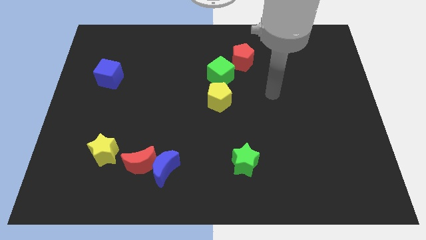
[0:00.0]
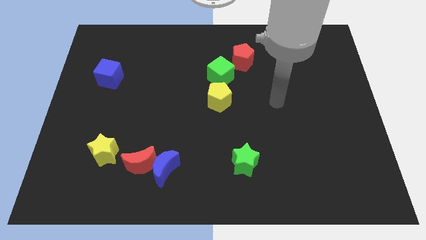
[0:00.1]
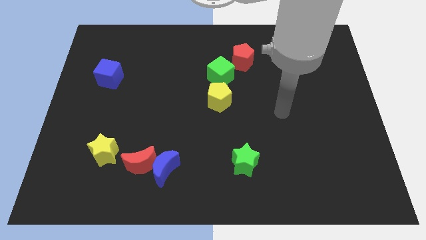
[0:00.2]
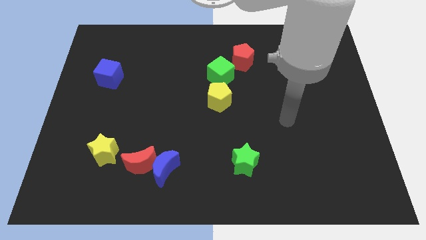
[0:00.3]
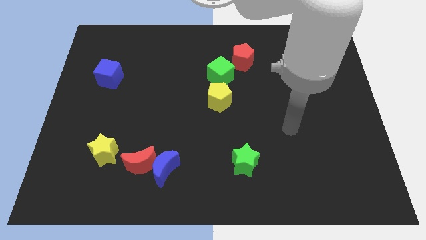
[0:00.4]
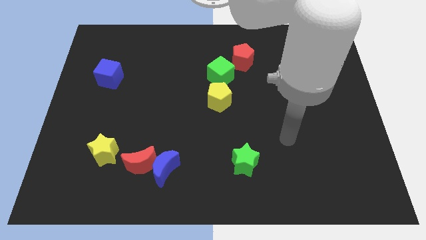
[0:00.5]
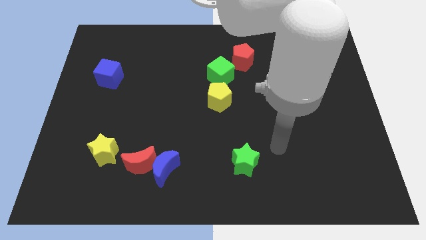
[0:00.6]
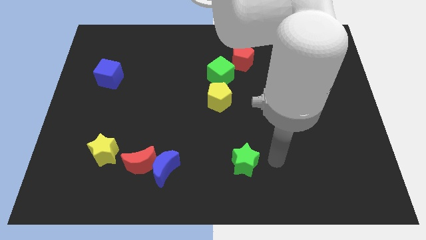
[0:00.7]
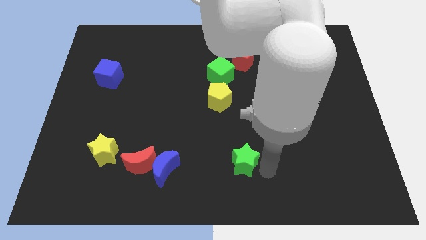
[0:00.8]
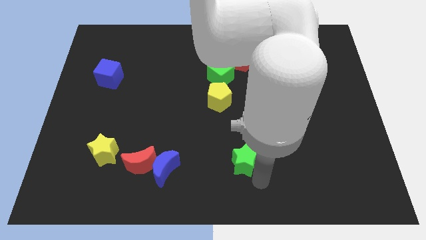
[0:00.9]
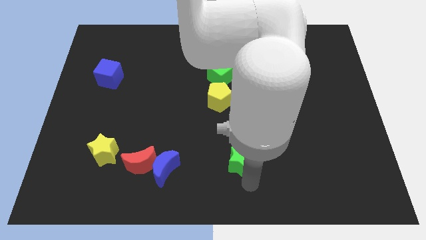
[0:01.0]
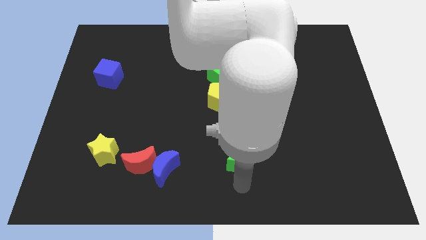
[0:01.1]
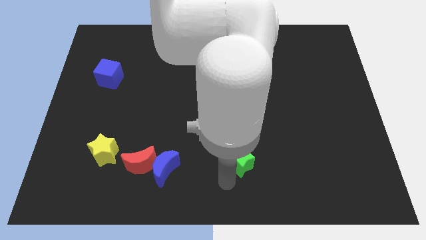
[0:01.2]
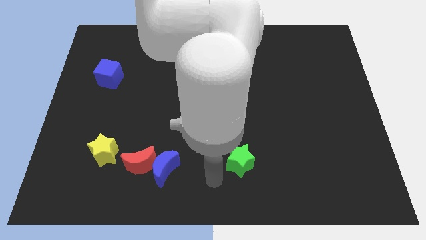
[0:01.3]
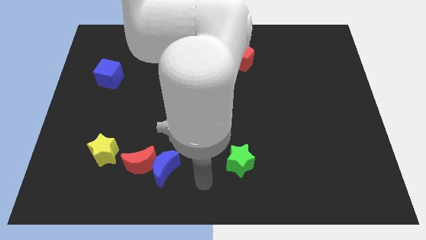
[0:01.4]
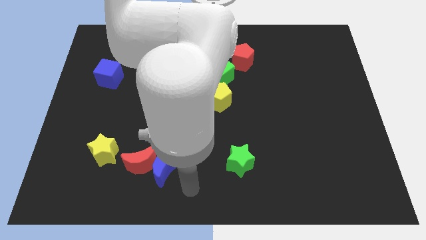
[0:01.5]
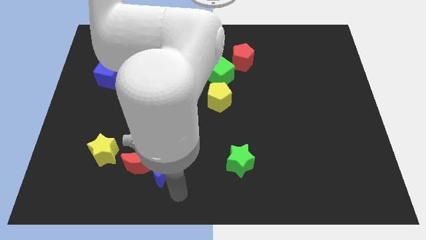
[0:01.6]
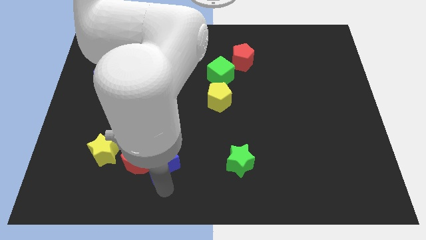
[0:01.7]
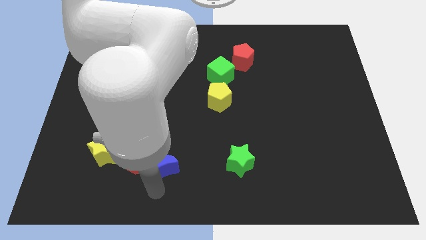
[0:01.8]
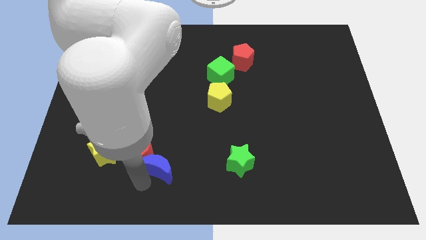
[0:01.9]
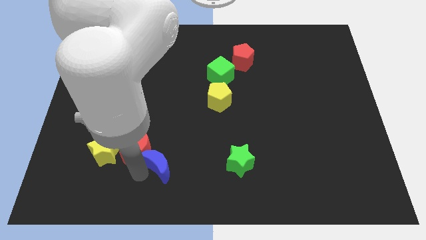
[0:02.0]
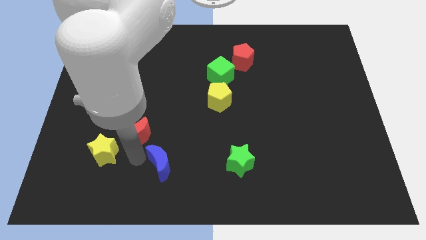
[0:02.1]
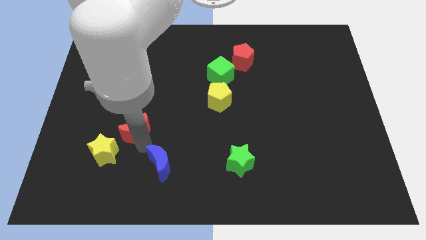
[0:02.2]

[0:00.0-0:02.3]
pull the blue moon apart from the red moon

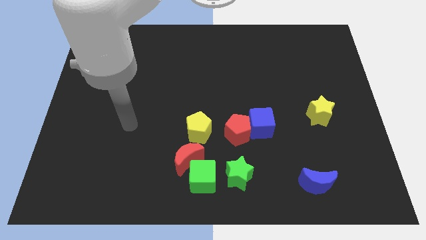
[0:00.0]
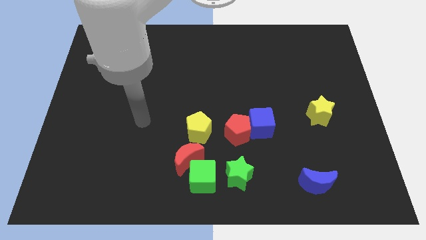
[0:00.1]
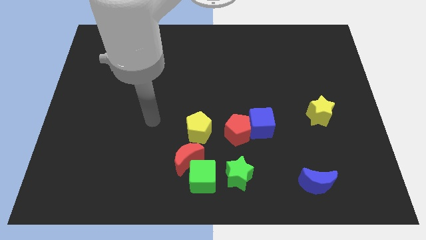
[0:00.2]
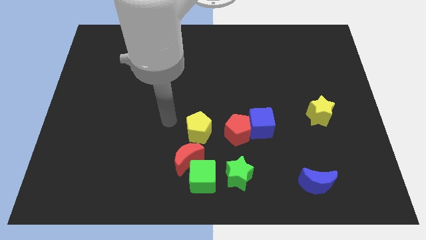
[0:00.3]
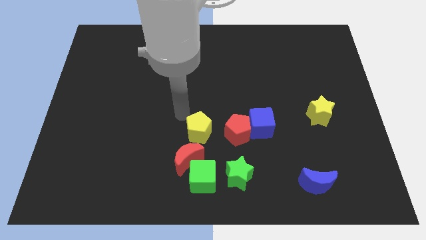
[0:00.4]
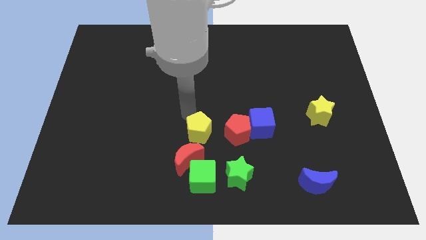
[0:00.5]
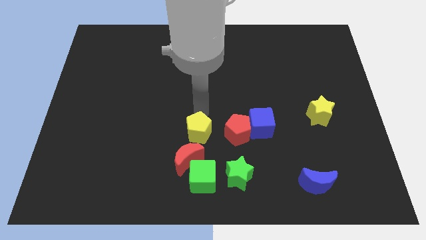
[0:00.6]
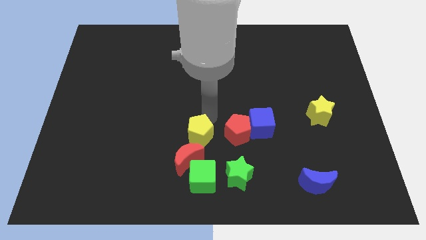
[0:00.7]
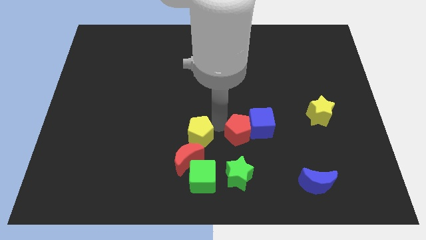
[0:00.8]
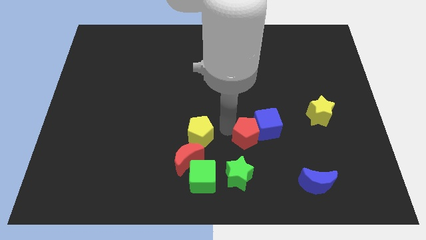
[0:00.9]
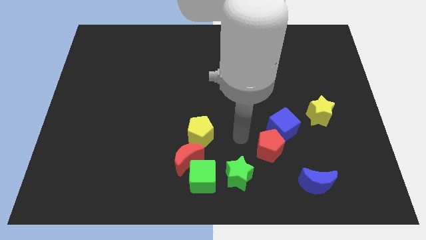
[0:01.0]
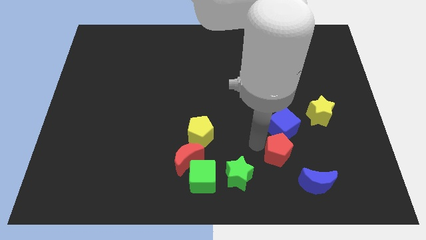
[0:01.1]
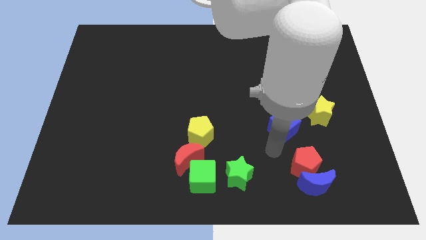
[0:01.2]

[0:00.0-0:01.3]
move the blue cube away from the red pentagon

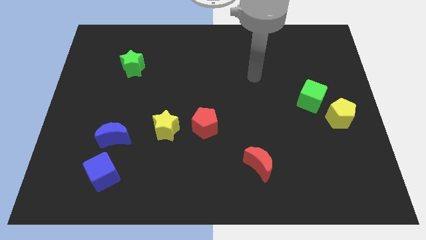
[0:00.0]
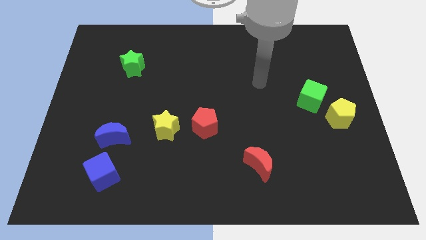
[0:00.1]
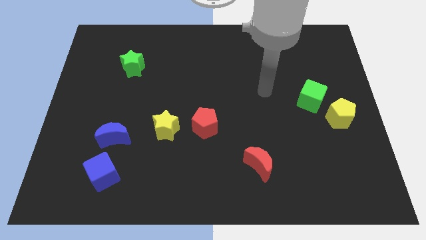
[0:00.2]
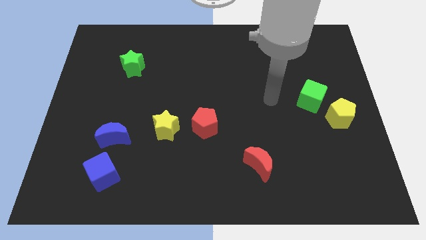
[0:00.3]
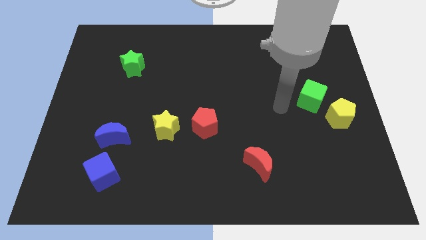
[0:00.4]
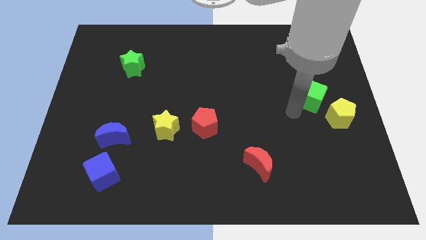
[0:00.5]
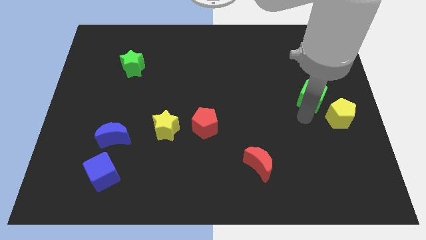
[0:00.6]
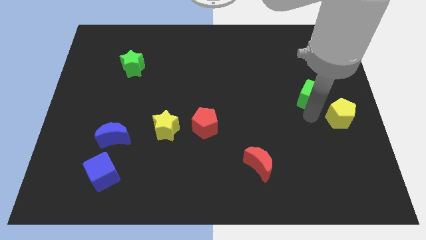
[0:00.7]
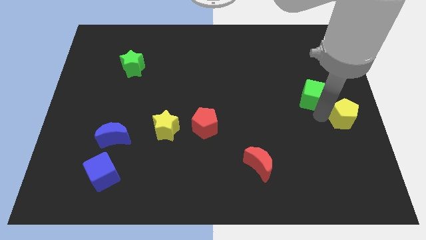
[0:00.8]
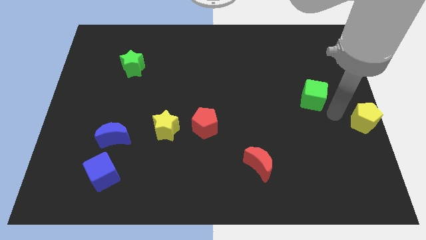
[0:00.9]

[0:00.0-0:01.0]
separate the green cube from the yellow pentagon

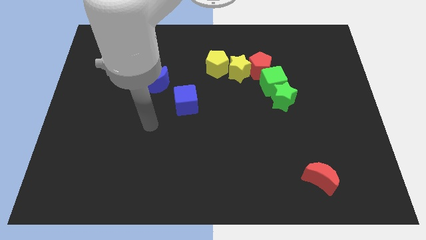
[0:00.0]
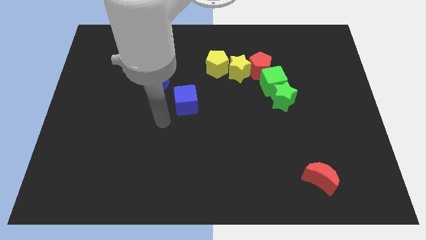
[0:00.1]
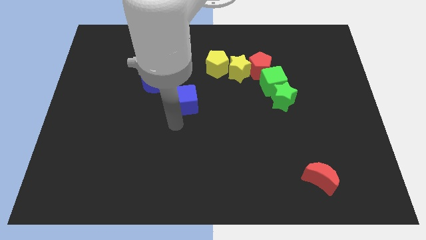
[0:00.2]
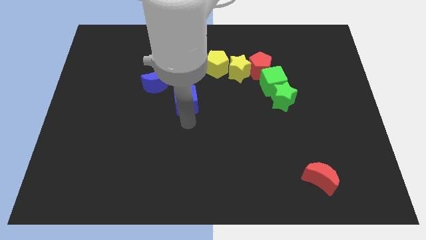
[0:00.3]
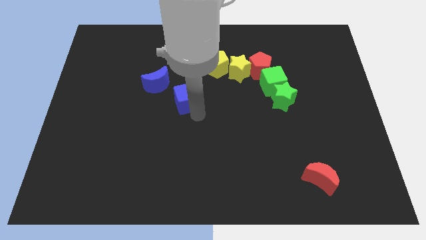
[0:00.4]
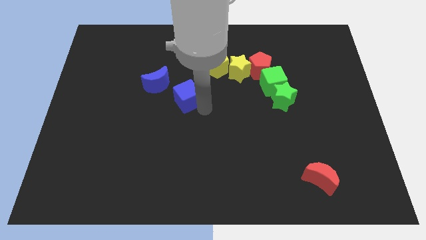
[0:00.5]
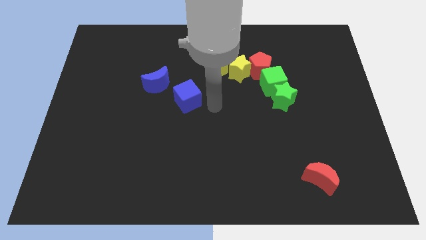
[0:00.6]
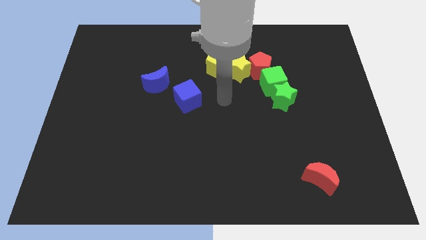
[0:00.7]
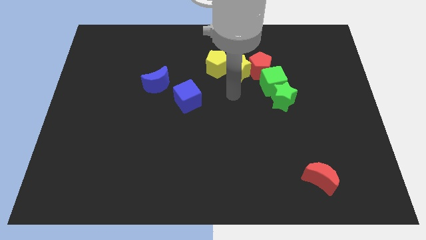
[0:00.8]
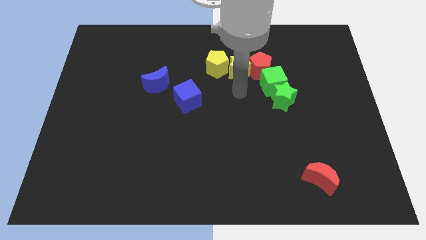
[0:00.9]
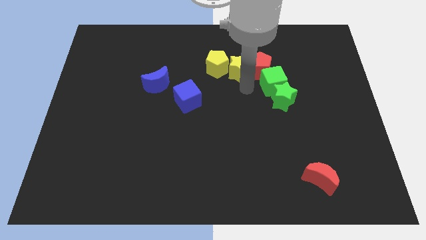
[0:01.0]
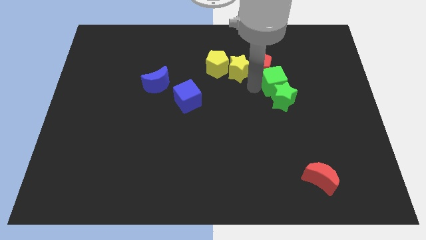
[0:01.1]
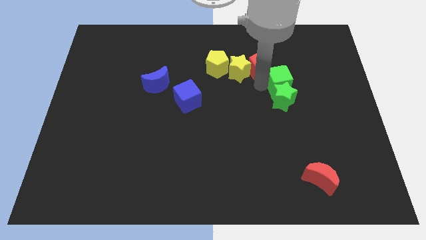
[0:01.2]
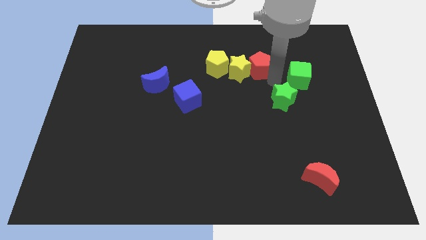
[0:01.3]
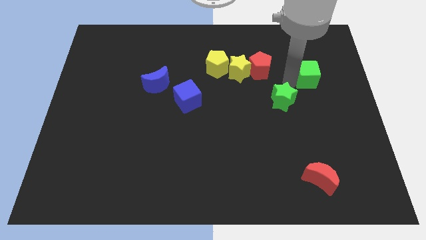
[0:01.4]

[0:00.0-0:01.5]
move the green star away from the green cube

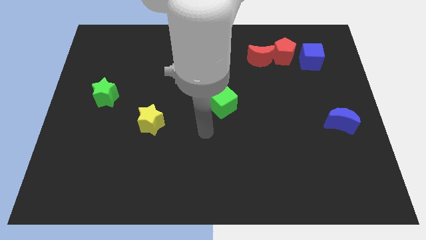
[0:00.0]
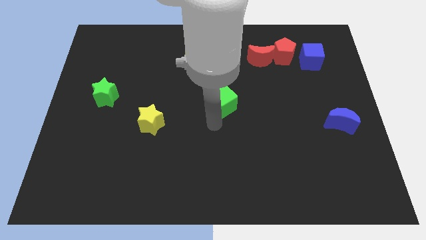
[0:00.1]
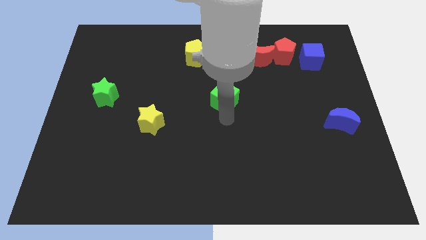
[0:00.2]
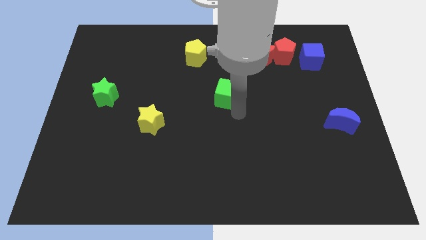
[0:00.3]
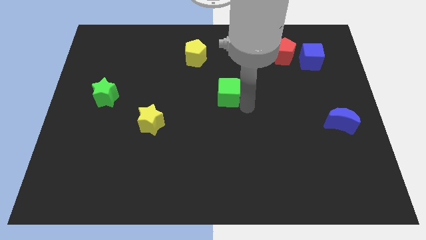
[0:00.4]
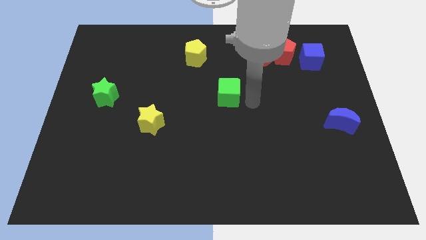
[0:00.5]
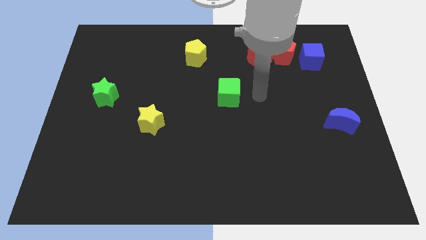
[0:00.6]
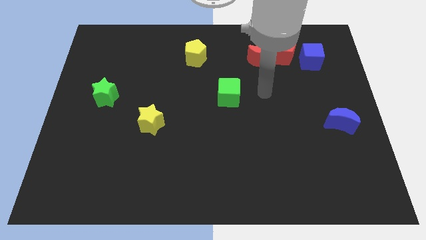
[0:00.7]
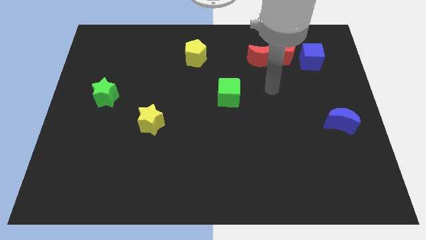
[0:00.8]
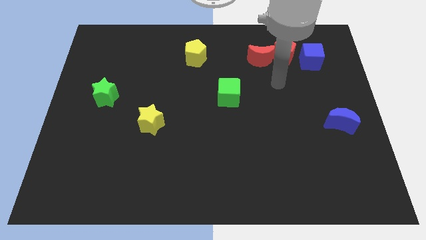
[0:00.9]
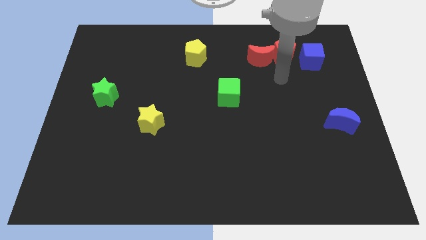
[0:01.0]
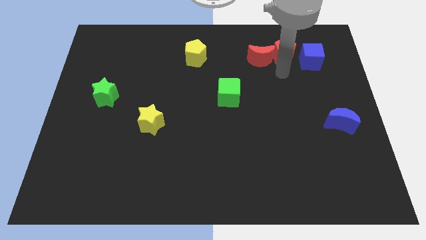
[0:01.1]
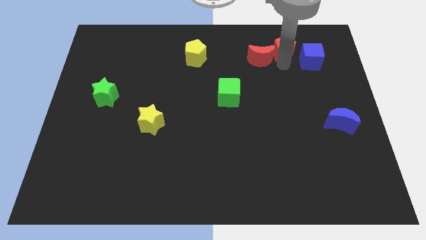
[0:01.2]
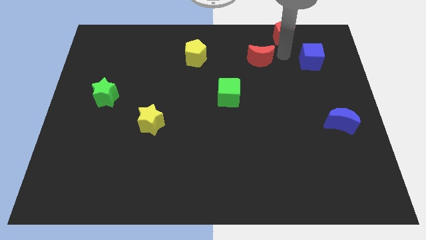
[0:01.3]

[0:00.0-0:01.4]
separate the red moon from the red pentagon

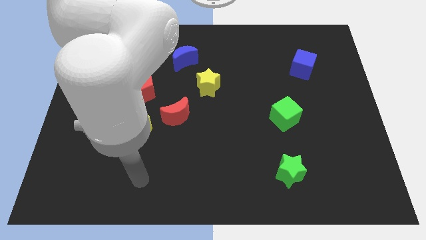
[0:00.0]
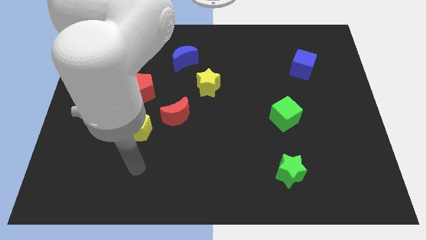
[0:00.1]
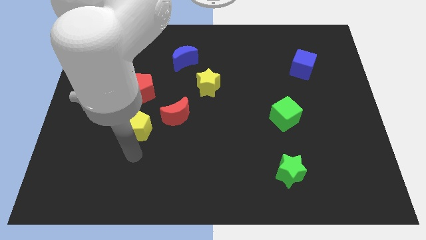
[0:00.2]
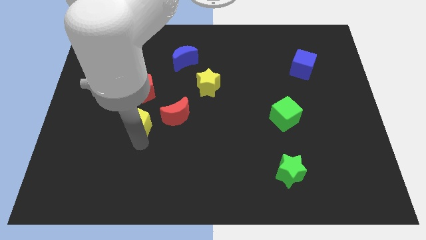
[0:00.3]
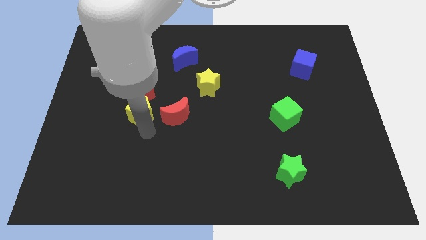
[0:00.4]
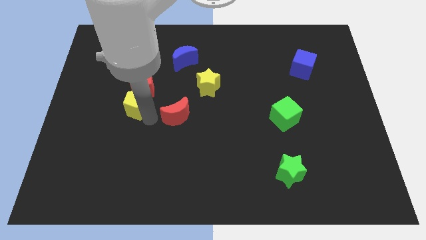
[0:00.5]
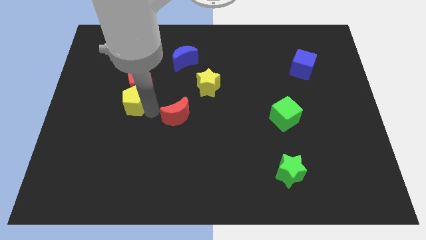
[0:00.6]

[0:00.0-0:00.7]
pull the red moon apart from the yellow pentagon

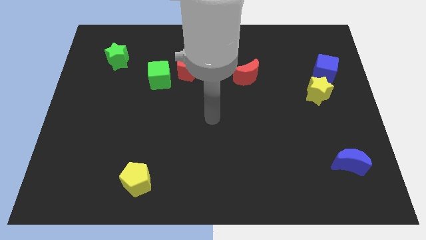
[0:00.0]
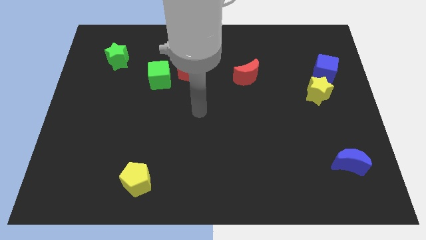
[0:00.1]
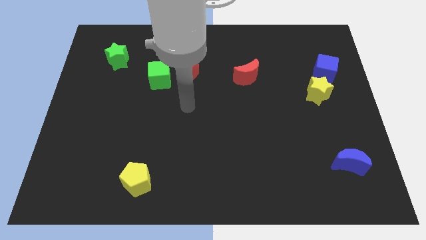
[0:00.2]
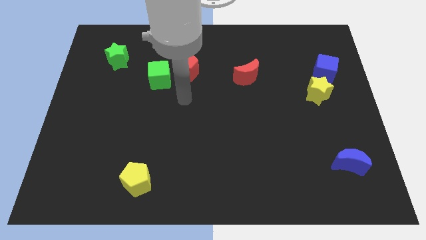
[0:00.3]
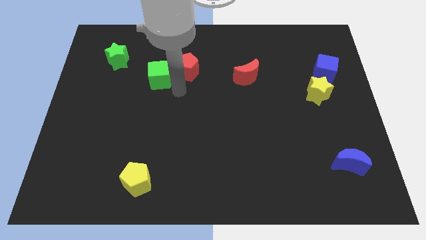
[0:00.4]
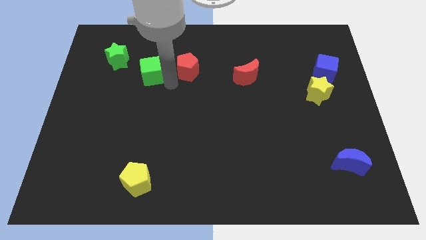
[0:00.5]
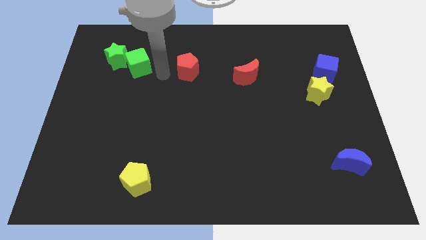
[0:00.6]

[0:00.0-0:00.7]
separate the red pentagon from the green cube

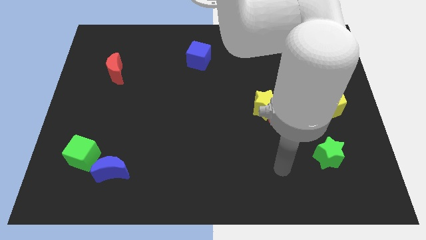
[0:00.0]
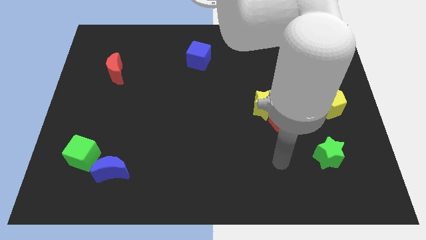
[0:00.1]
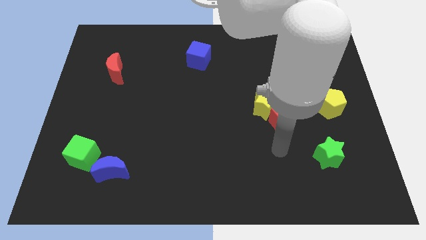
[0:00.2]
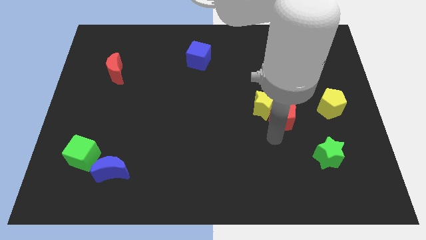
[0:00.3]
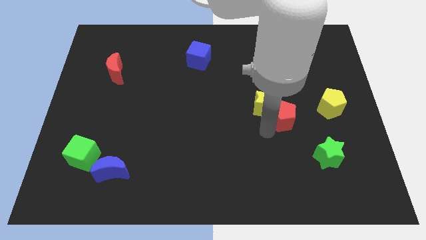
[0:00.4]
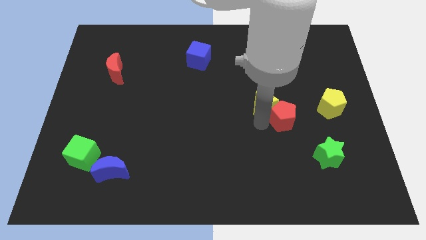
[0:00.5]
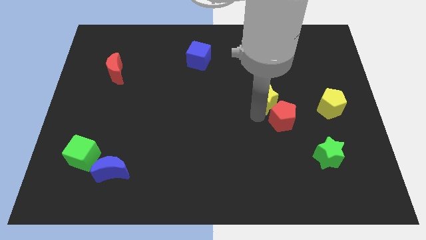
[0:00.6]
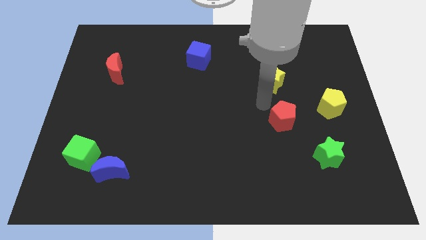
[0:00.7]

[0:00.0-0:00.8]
pull the red pentagon apart from the yellow star
